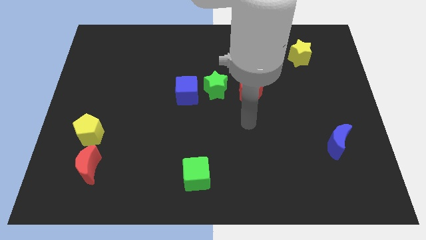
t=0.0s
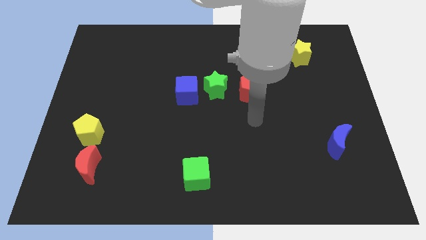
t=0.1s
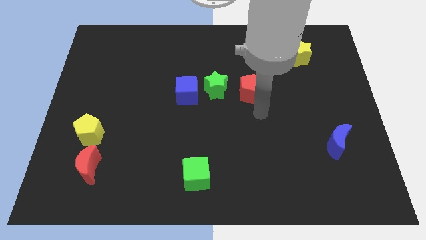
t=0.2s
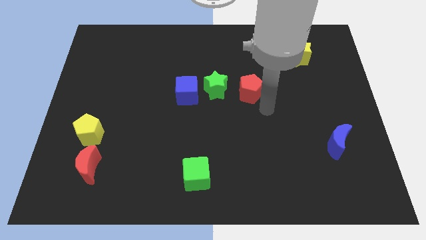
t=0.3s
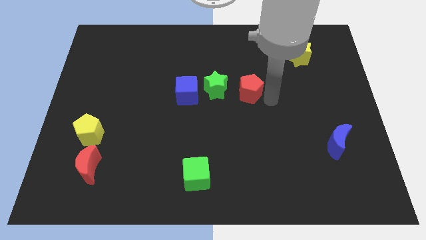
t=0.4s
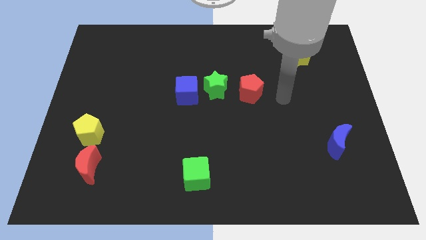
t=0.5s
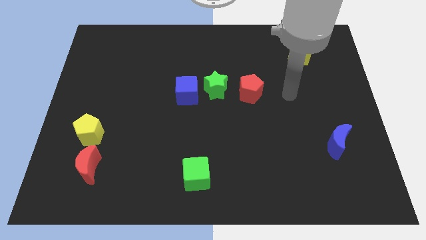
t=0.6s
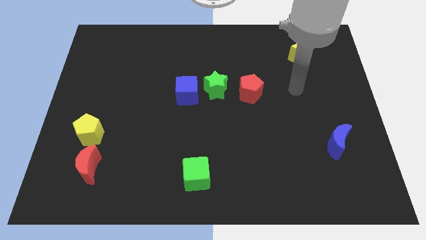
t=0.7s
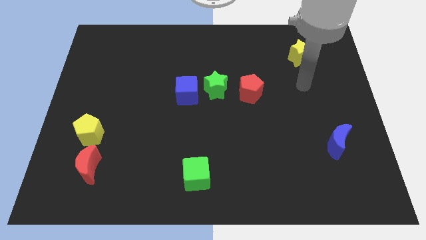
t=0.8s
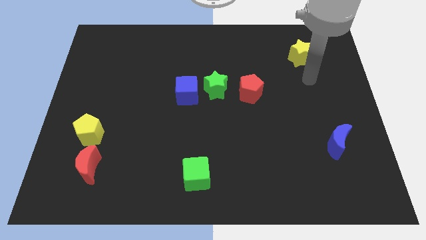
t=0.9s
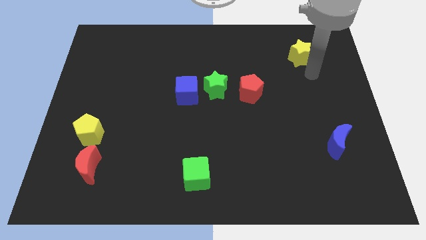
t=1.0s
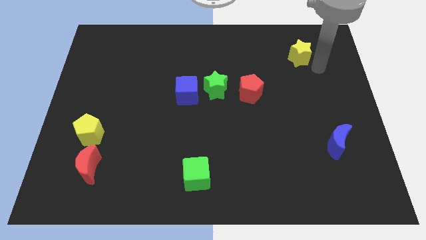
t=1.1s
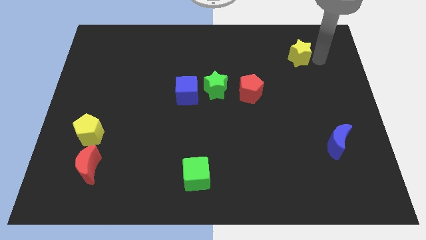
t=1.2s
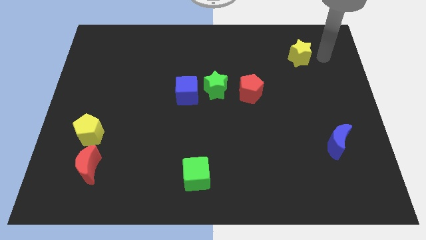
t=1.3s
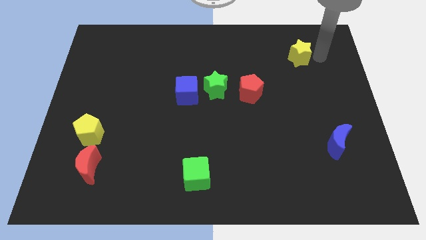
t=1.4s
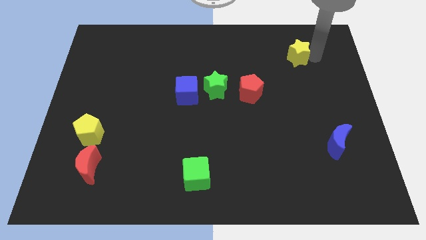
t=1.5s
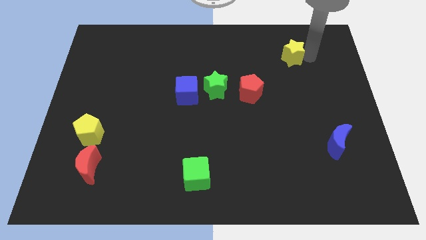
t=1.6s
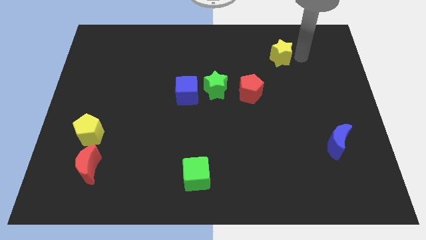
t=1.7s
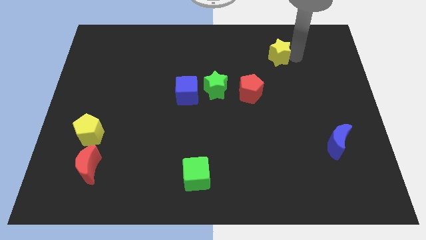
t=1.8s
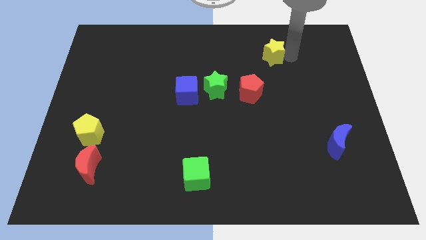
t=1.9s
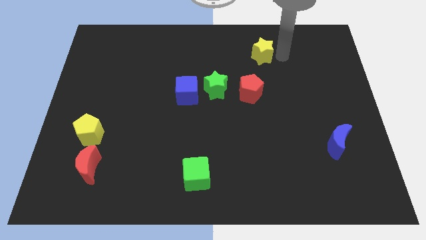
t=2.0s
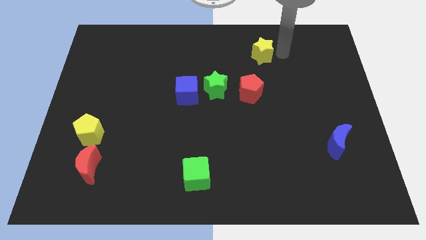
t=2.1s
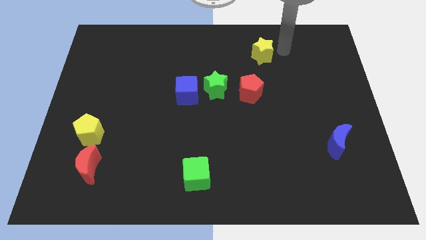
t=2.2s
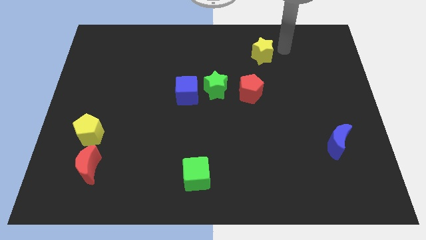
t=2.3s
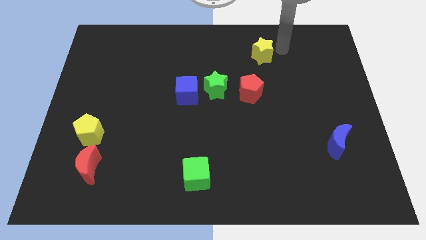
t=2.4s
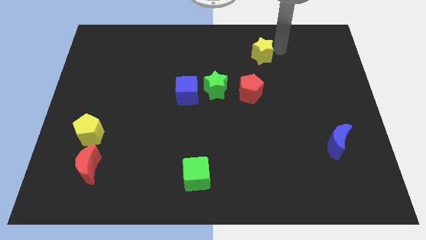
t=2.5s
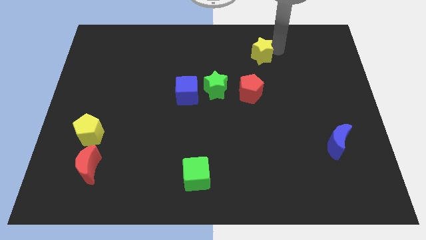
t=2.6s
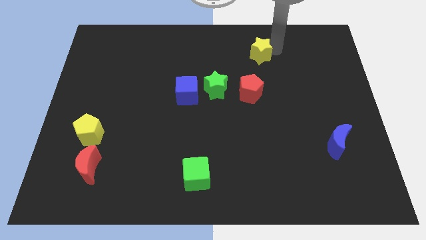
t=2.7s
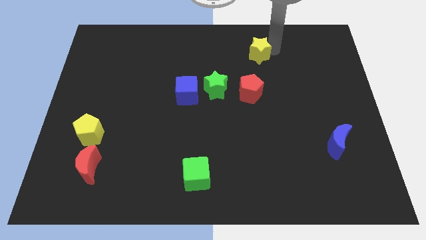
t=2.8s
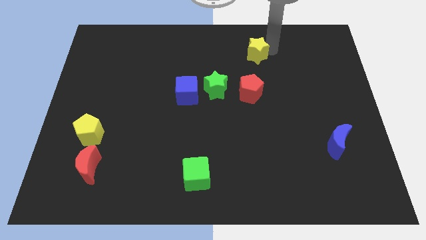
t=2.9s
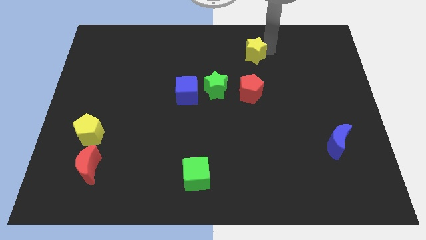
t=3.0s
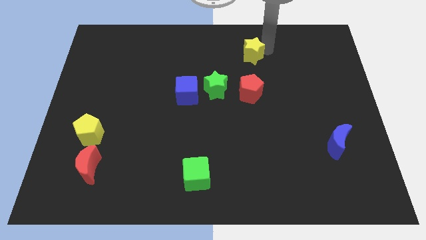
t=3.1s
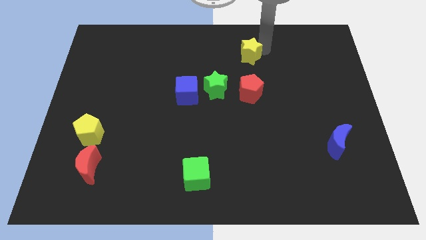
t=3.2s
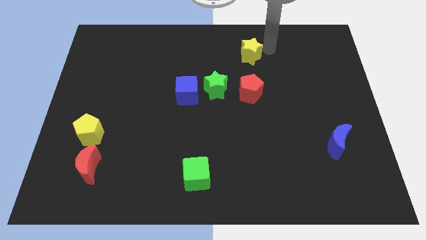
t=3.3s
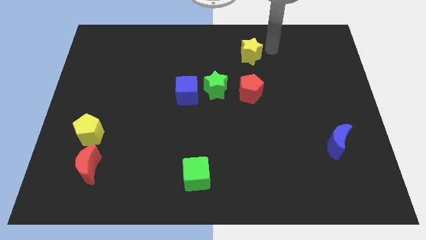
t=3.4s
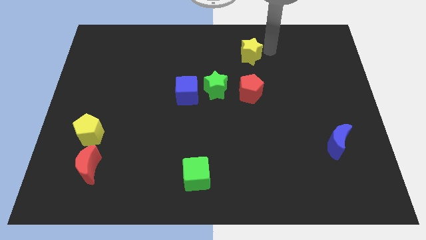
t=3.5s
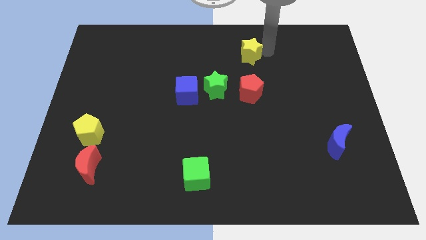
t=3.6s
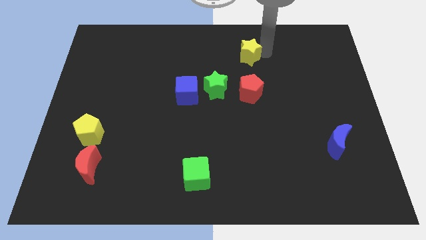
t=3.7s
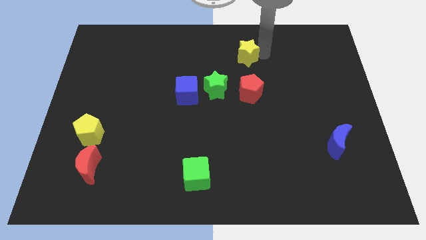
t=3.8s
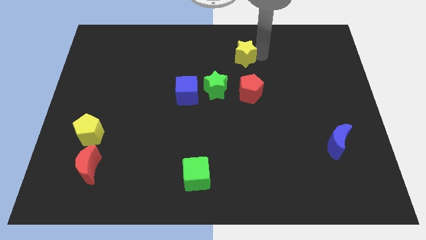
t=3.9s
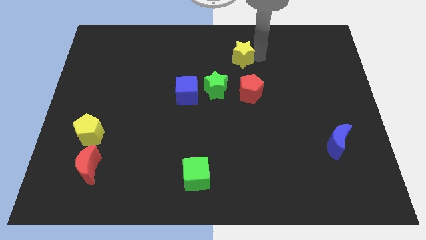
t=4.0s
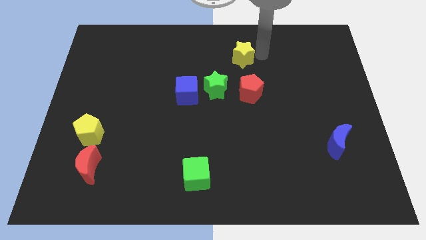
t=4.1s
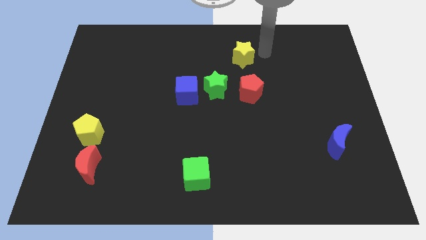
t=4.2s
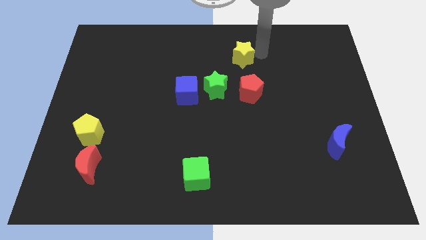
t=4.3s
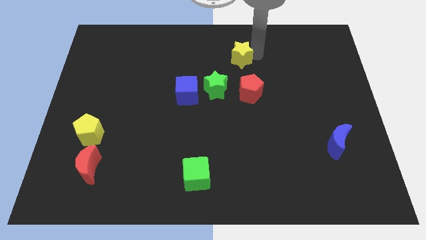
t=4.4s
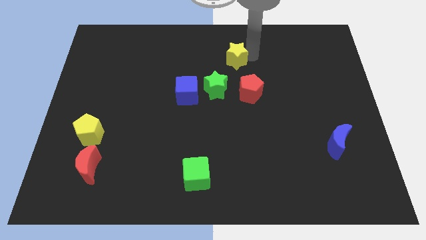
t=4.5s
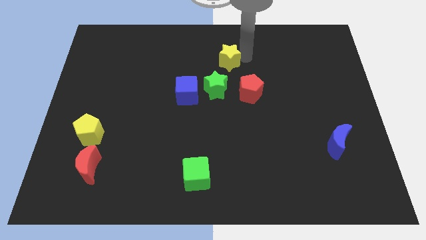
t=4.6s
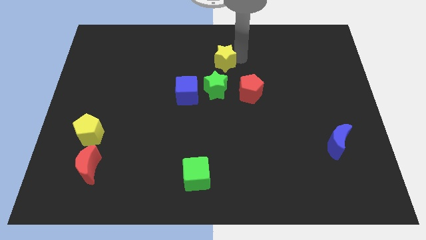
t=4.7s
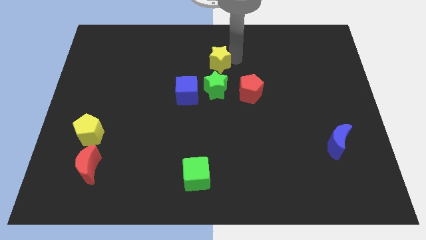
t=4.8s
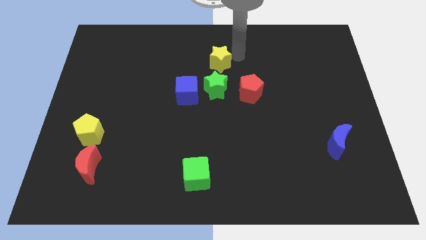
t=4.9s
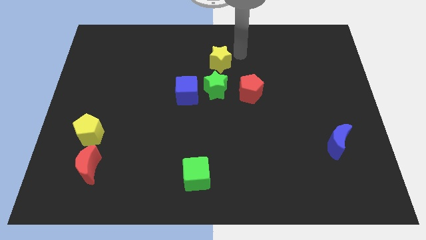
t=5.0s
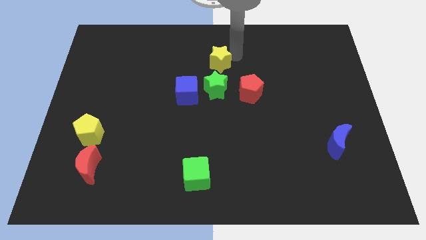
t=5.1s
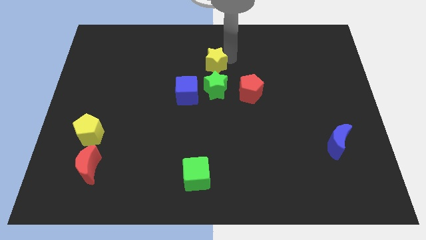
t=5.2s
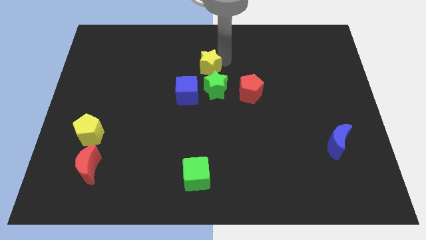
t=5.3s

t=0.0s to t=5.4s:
slide the yellow star to the top left side of the green star
